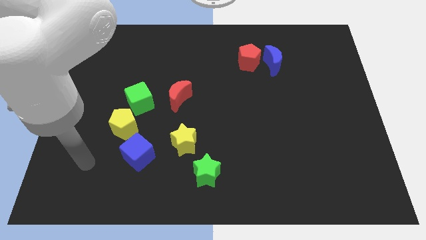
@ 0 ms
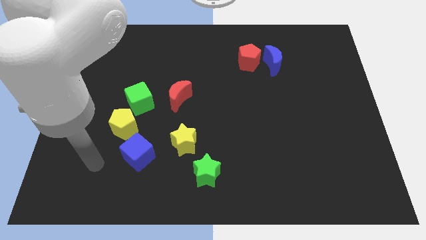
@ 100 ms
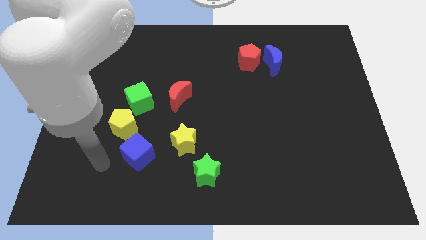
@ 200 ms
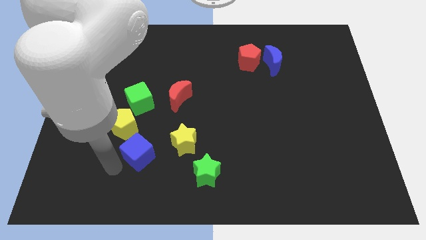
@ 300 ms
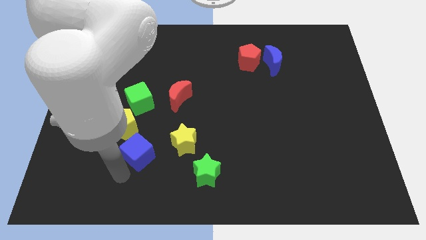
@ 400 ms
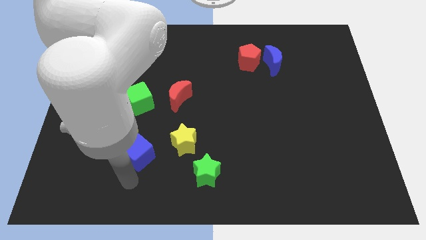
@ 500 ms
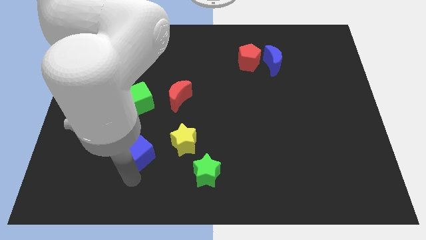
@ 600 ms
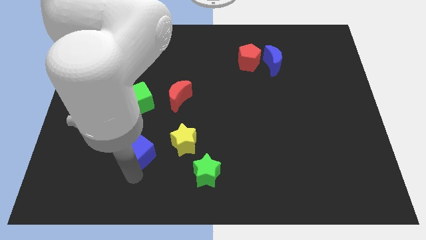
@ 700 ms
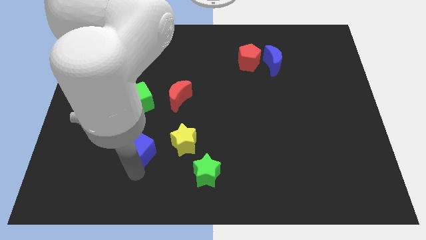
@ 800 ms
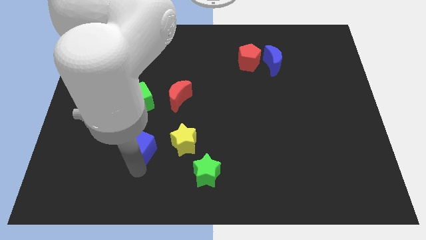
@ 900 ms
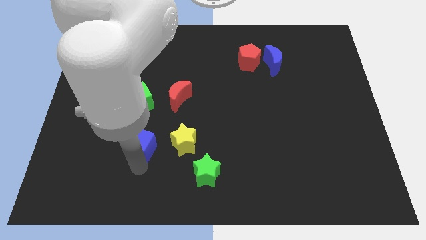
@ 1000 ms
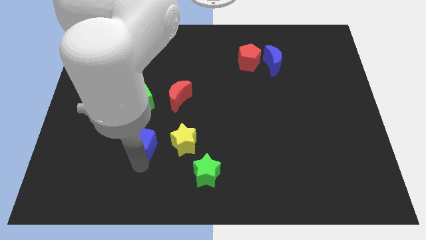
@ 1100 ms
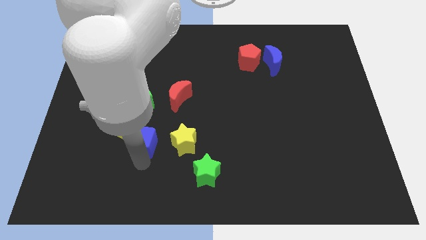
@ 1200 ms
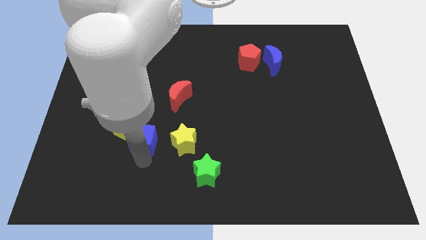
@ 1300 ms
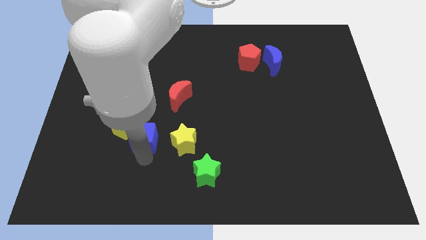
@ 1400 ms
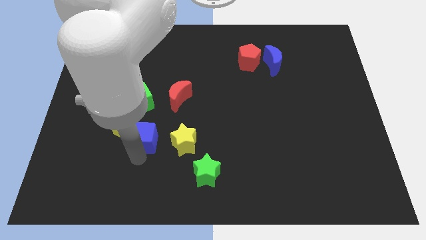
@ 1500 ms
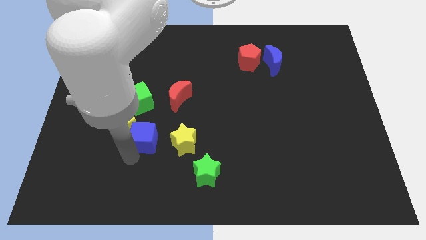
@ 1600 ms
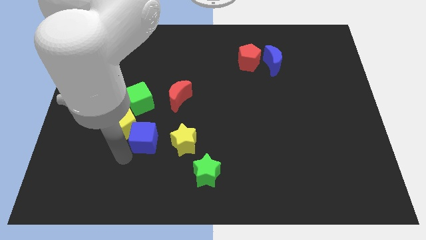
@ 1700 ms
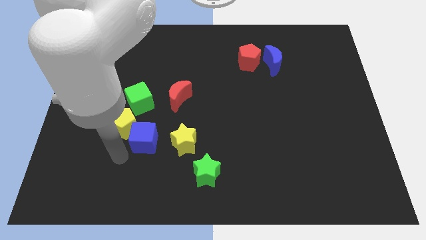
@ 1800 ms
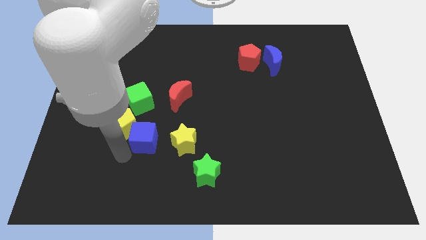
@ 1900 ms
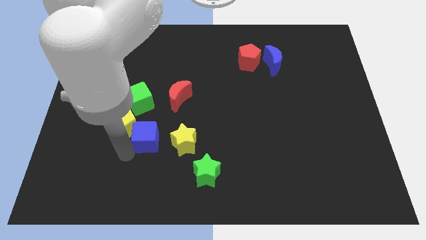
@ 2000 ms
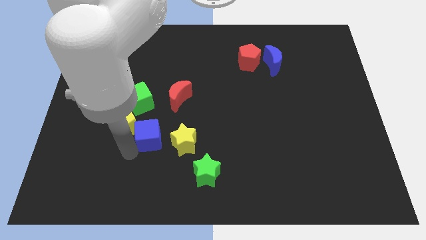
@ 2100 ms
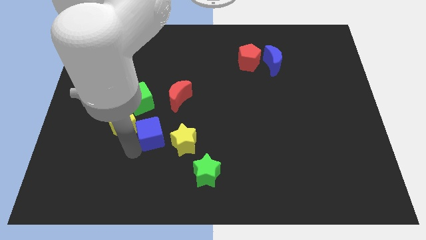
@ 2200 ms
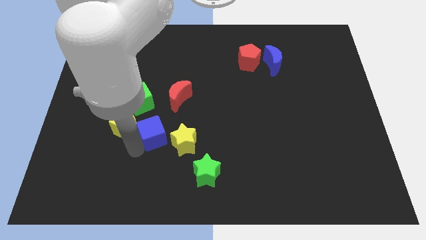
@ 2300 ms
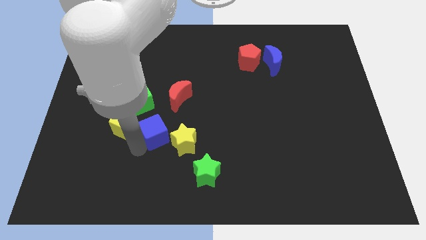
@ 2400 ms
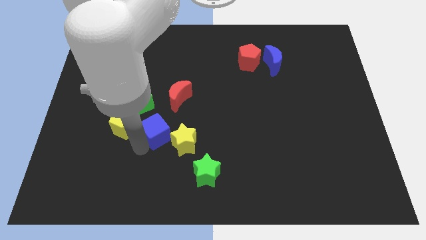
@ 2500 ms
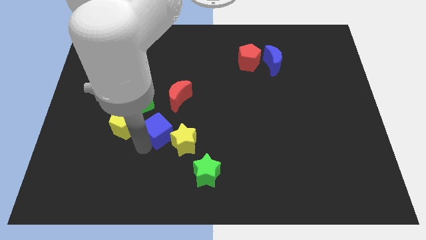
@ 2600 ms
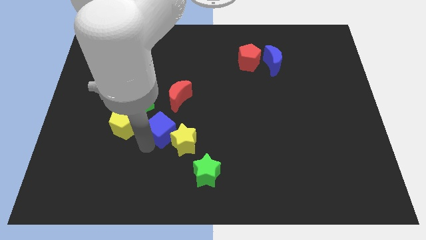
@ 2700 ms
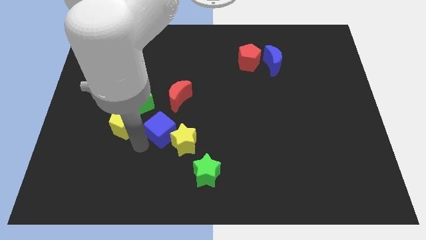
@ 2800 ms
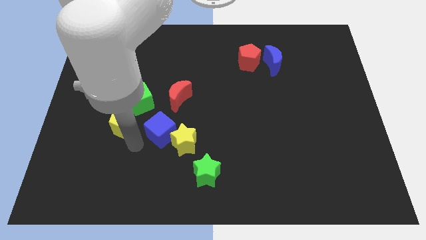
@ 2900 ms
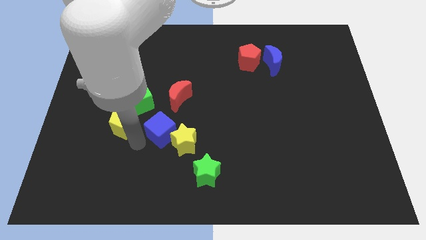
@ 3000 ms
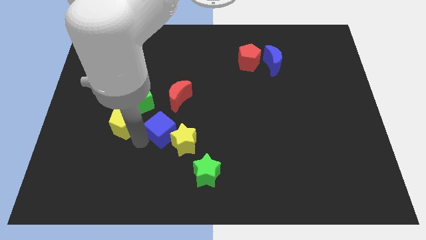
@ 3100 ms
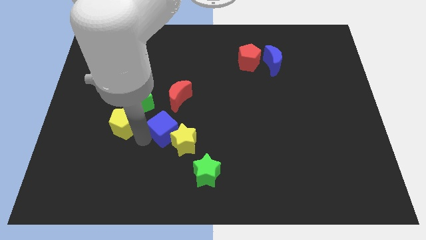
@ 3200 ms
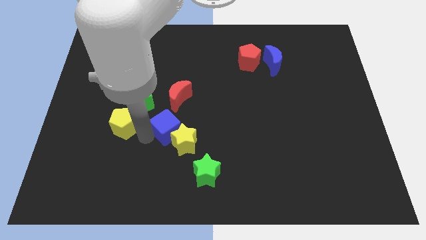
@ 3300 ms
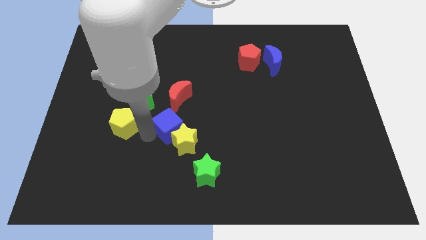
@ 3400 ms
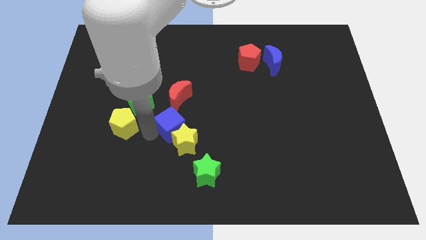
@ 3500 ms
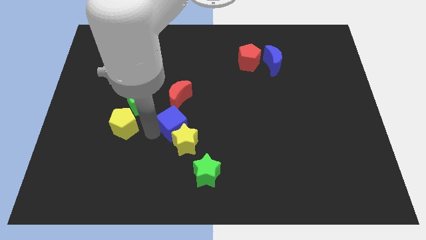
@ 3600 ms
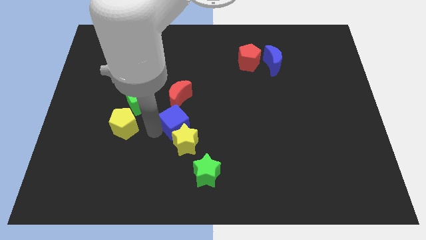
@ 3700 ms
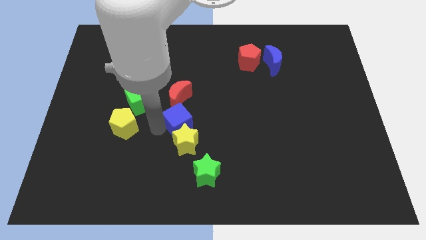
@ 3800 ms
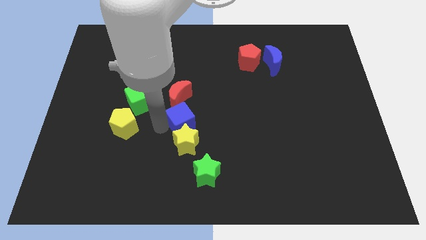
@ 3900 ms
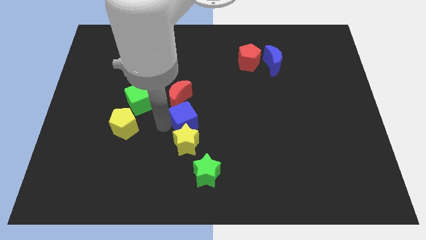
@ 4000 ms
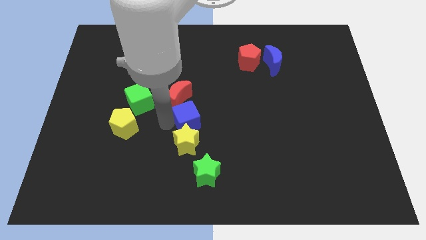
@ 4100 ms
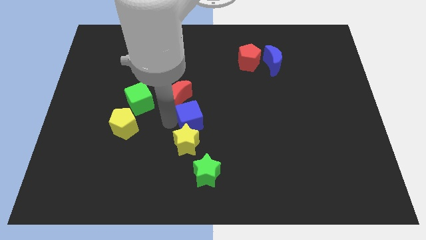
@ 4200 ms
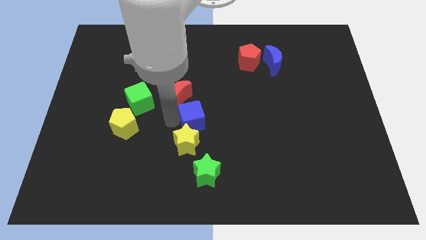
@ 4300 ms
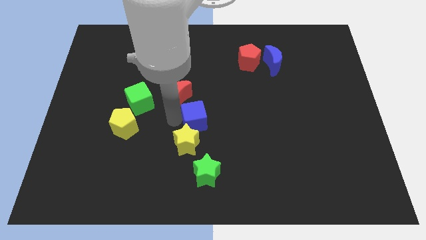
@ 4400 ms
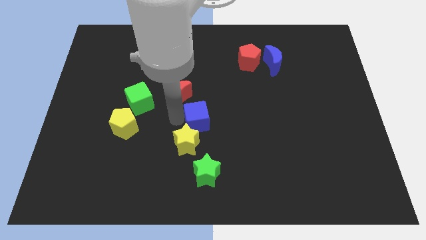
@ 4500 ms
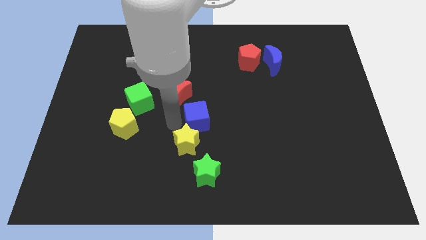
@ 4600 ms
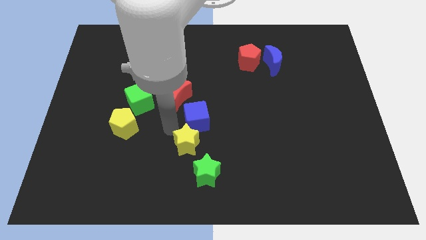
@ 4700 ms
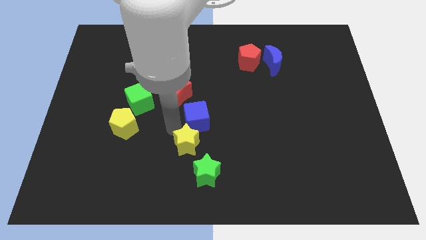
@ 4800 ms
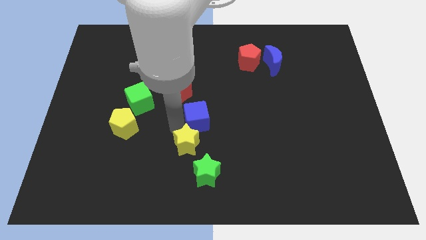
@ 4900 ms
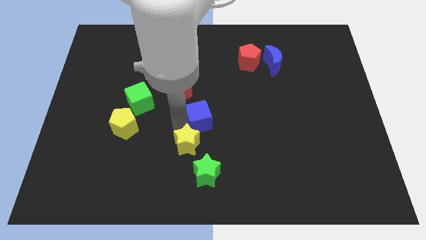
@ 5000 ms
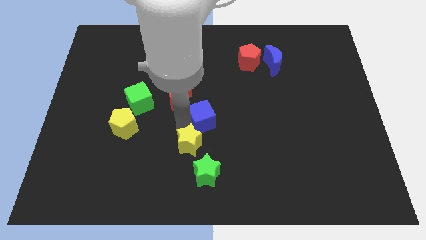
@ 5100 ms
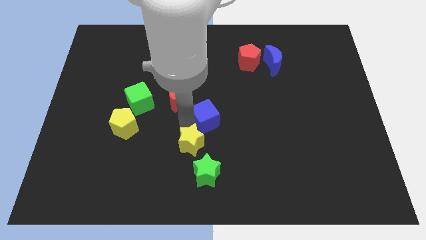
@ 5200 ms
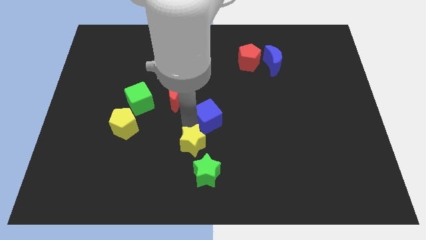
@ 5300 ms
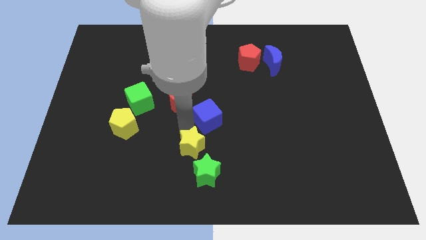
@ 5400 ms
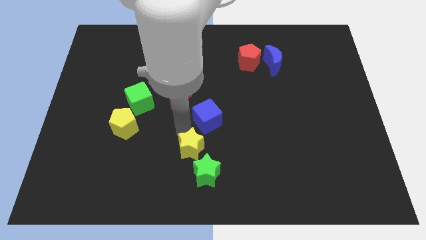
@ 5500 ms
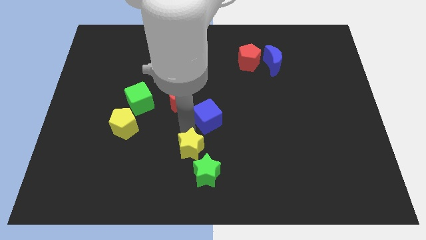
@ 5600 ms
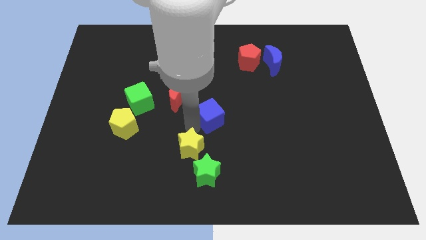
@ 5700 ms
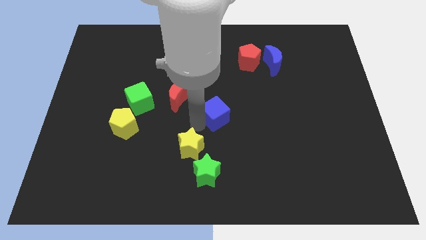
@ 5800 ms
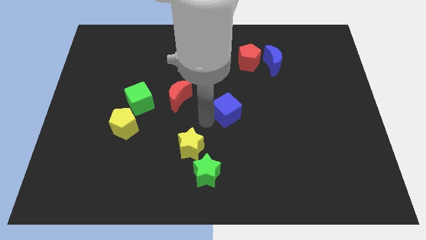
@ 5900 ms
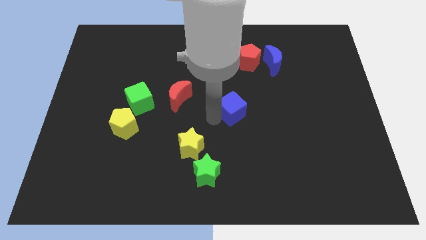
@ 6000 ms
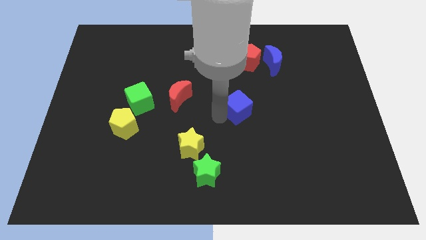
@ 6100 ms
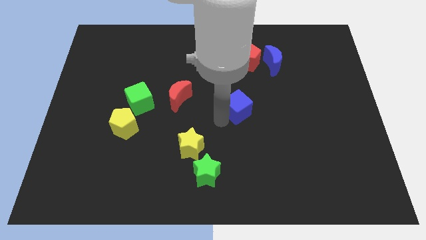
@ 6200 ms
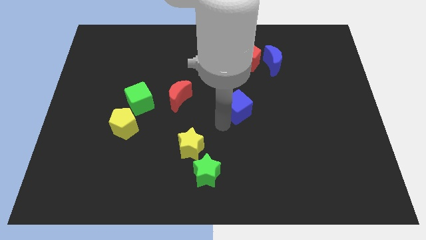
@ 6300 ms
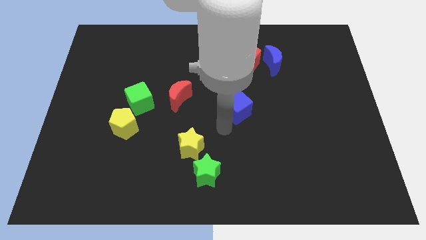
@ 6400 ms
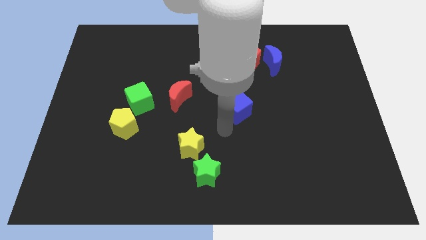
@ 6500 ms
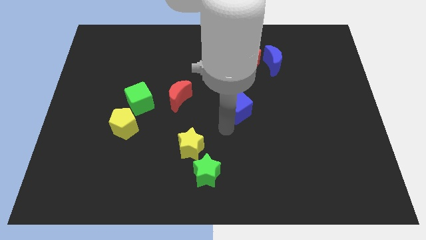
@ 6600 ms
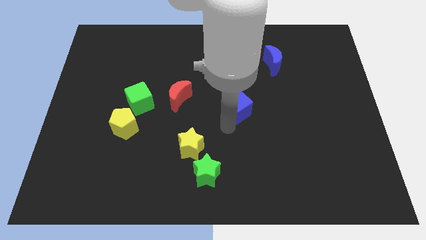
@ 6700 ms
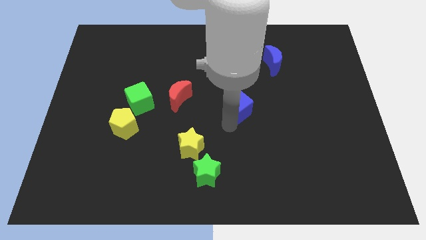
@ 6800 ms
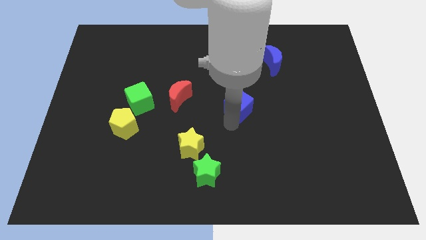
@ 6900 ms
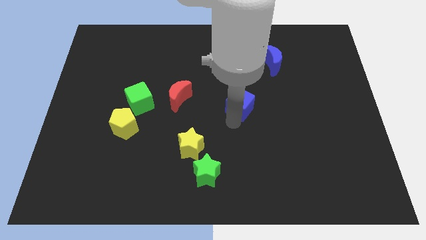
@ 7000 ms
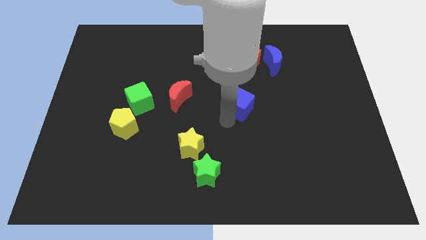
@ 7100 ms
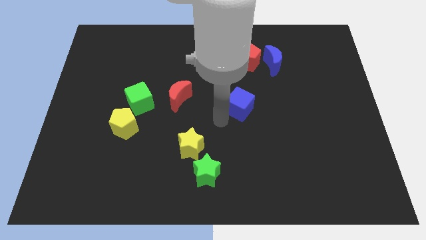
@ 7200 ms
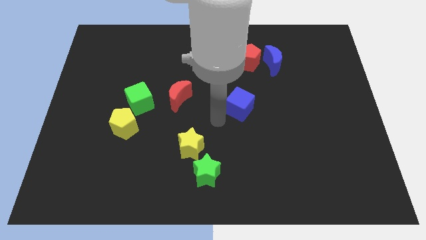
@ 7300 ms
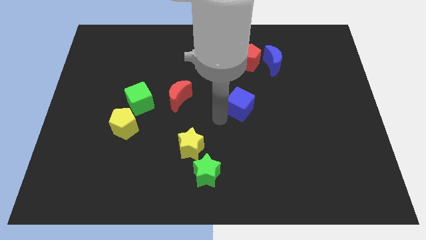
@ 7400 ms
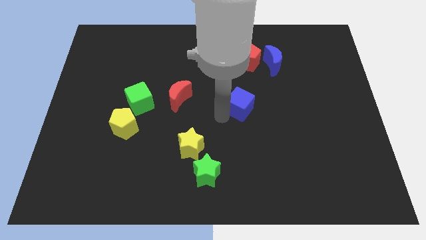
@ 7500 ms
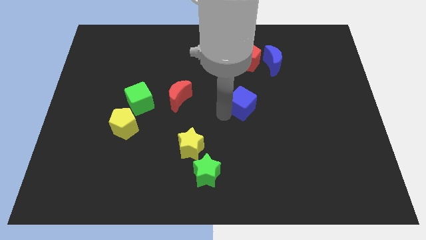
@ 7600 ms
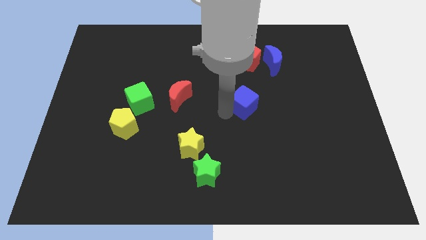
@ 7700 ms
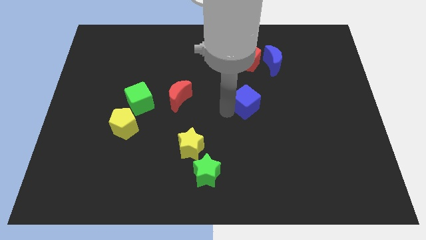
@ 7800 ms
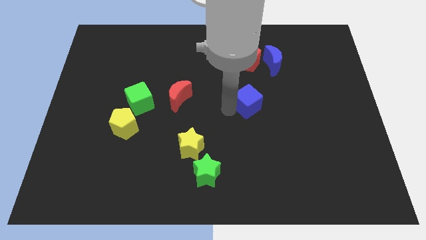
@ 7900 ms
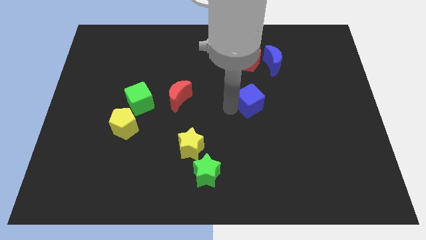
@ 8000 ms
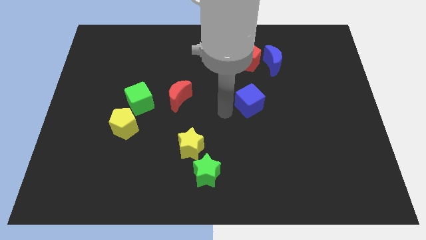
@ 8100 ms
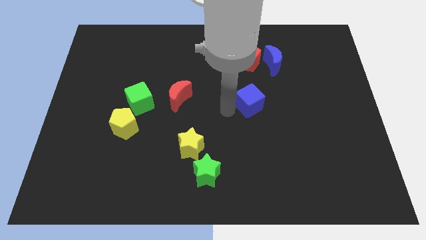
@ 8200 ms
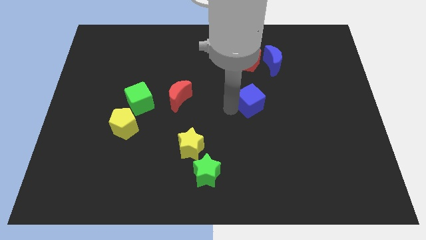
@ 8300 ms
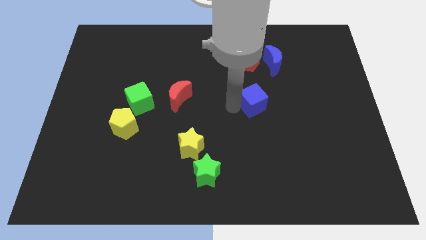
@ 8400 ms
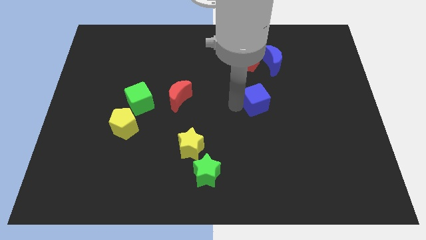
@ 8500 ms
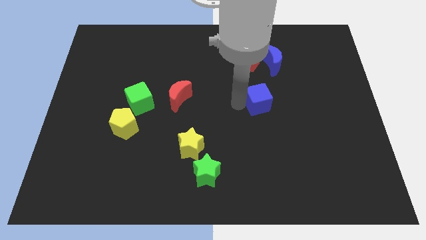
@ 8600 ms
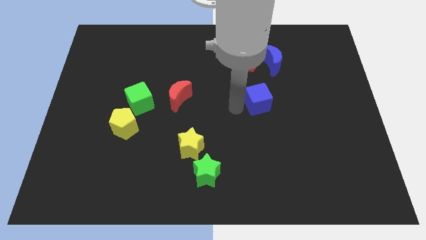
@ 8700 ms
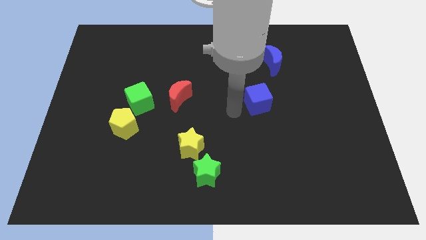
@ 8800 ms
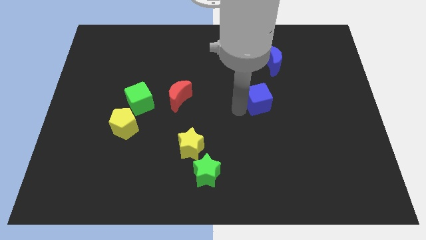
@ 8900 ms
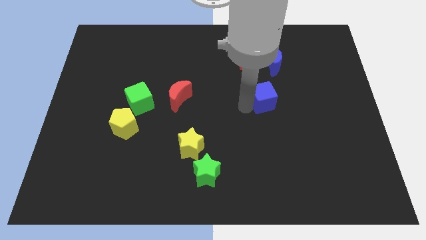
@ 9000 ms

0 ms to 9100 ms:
put the blue cube below the blue moon
